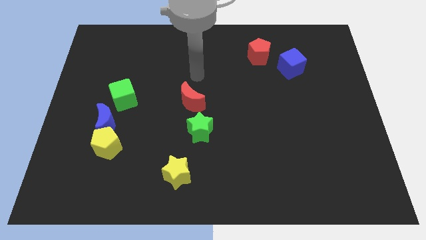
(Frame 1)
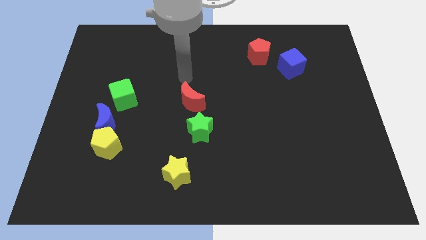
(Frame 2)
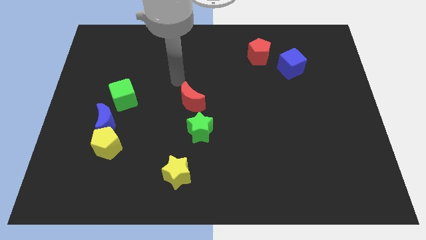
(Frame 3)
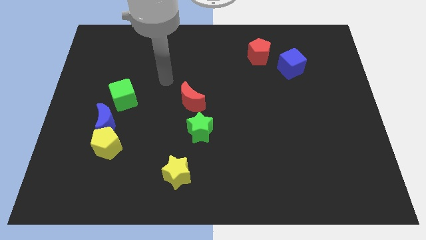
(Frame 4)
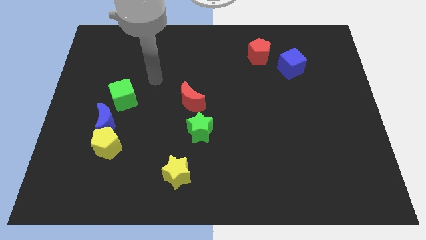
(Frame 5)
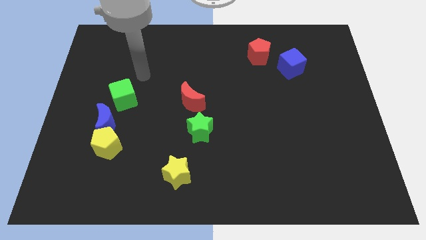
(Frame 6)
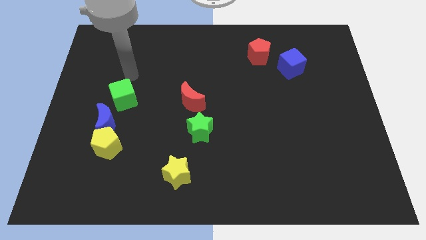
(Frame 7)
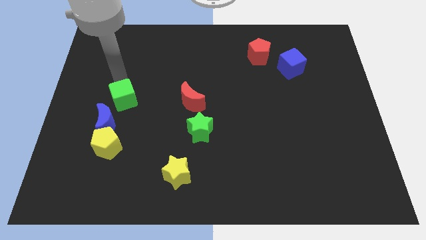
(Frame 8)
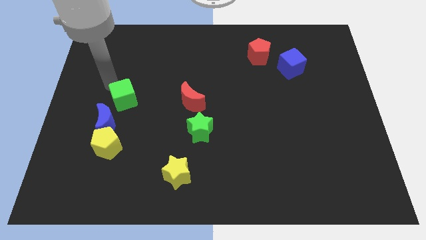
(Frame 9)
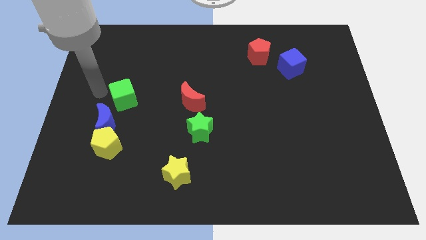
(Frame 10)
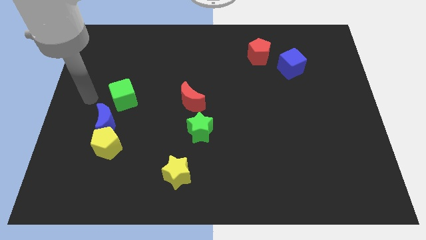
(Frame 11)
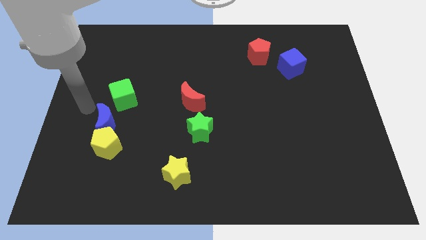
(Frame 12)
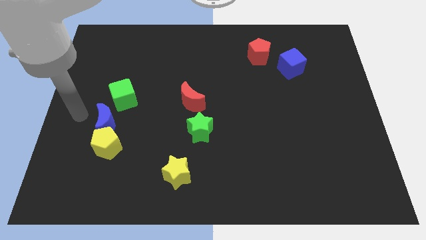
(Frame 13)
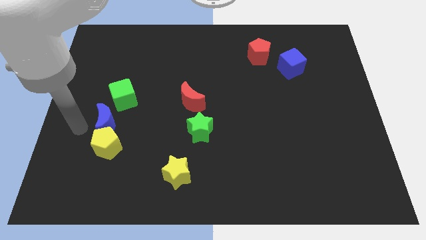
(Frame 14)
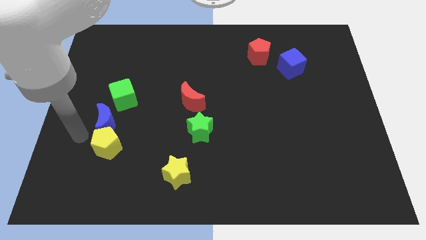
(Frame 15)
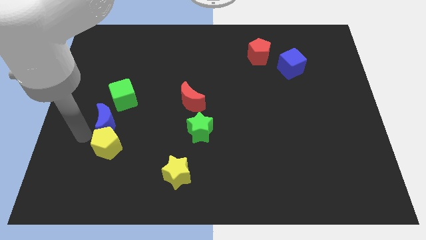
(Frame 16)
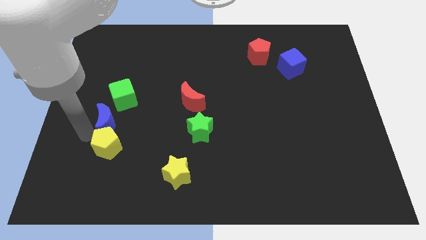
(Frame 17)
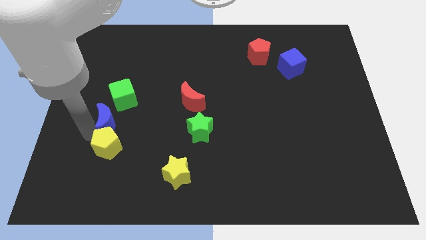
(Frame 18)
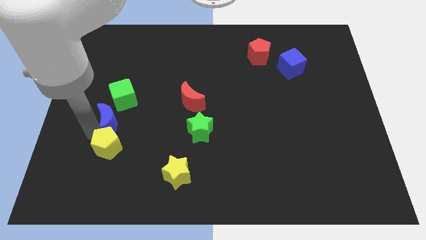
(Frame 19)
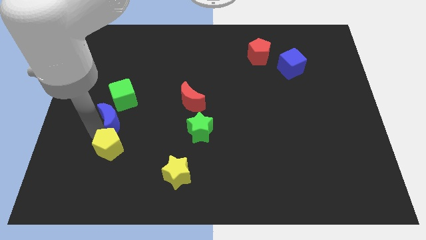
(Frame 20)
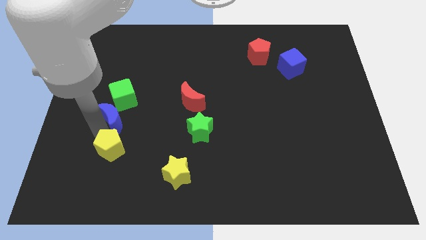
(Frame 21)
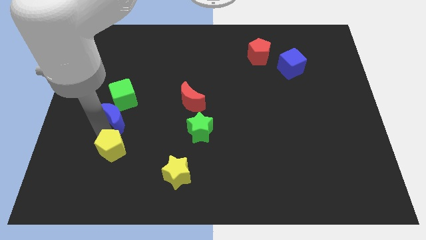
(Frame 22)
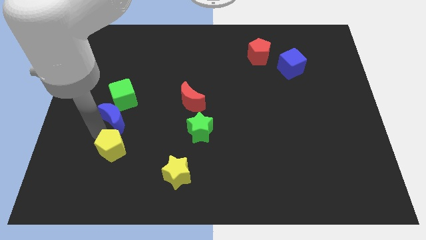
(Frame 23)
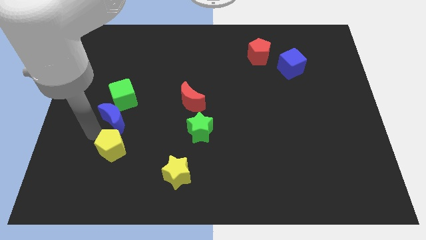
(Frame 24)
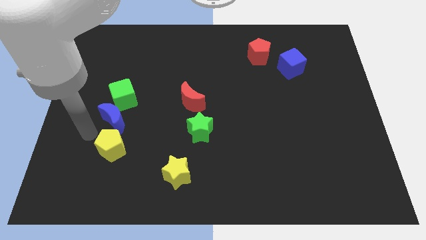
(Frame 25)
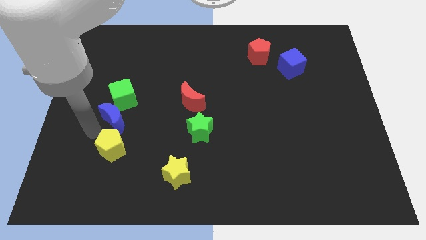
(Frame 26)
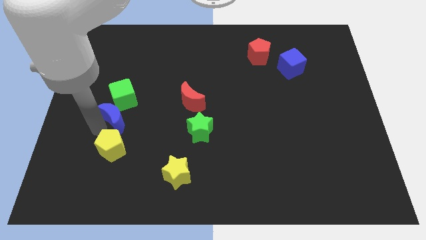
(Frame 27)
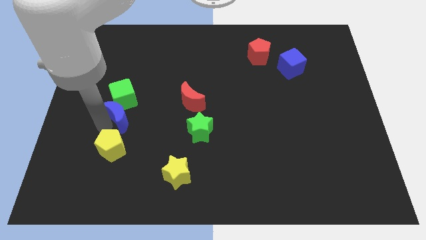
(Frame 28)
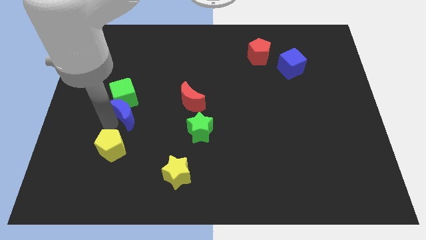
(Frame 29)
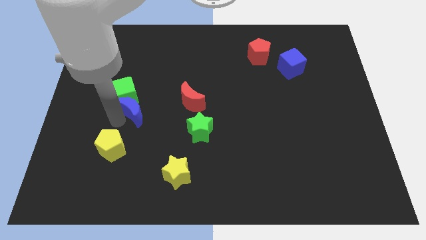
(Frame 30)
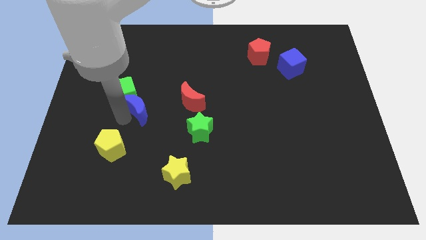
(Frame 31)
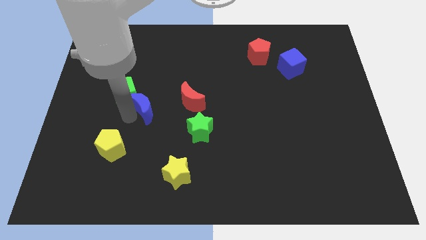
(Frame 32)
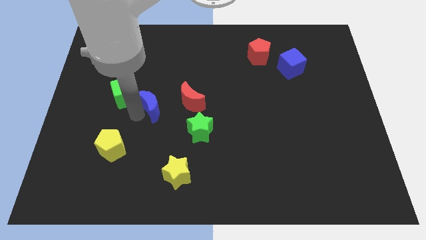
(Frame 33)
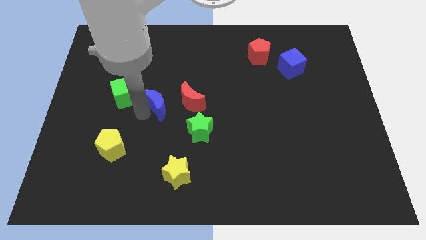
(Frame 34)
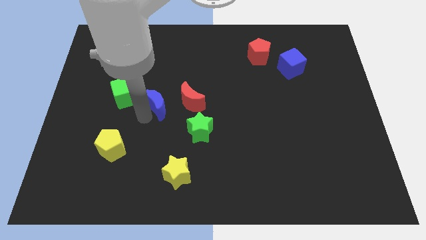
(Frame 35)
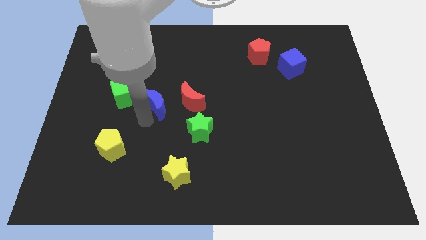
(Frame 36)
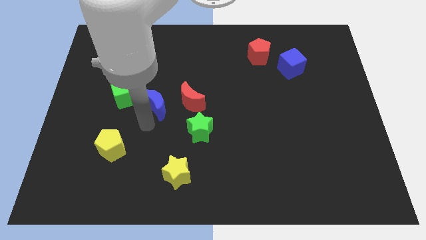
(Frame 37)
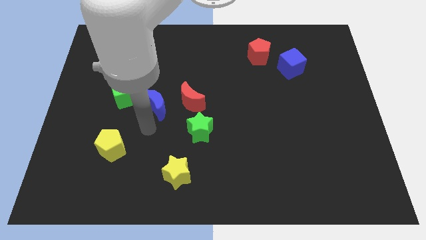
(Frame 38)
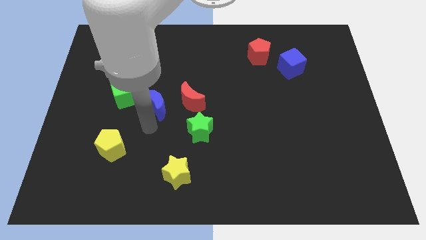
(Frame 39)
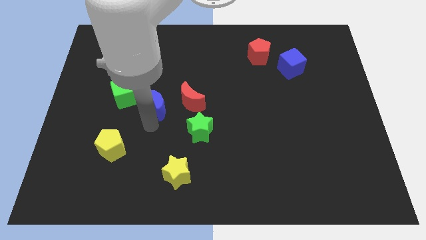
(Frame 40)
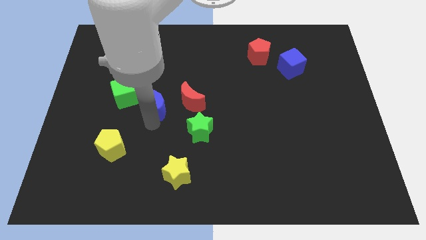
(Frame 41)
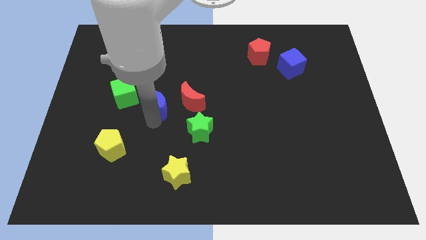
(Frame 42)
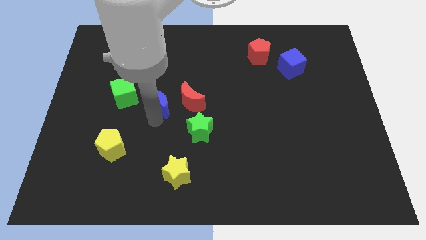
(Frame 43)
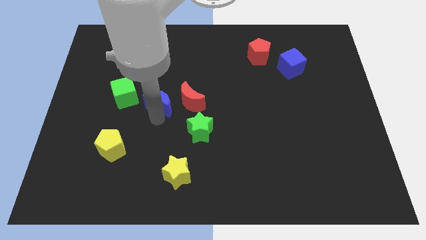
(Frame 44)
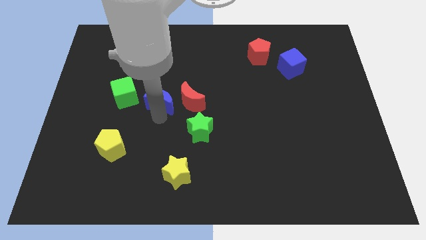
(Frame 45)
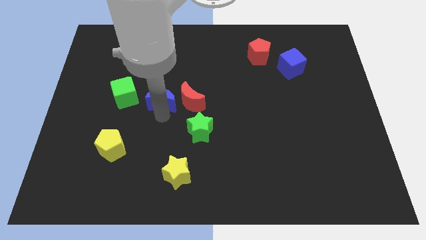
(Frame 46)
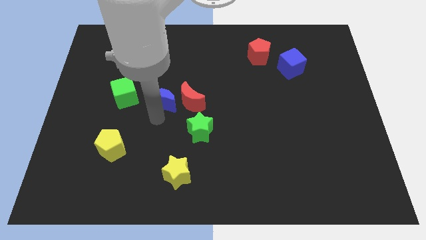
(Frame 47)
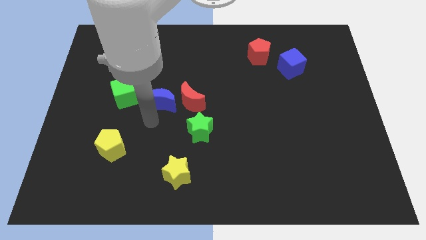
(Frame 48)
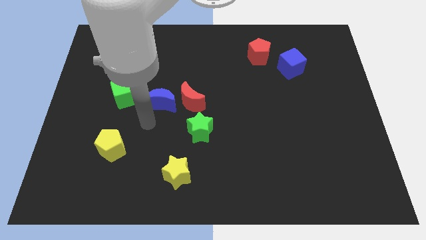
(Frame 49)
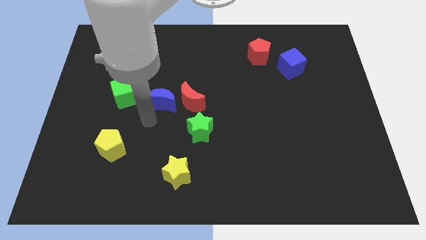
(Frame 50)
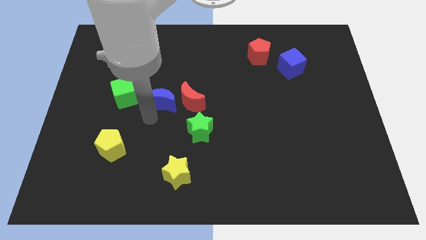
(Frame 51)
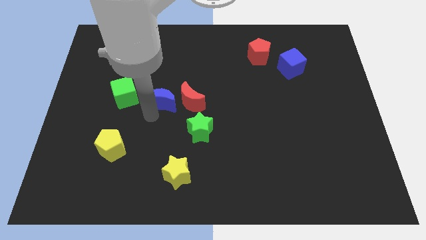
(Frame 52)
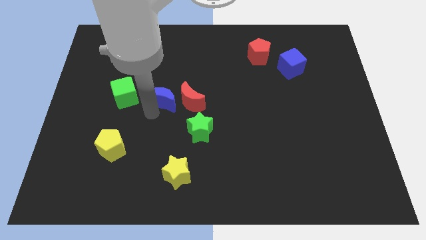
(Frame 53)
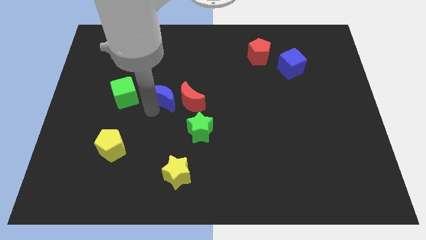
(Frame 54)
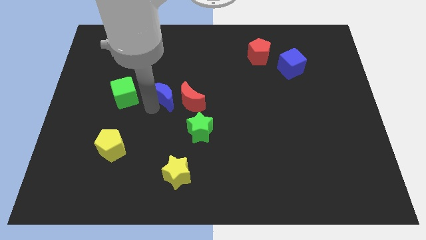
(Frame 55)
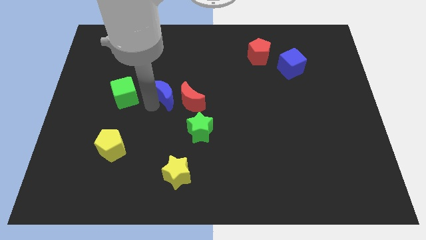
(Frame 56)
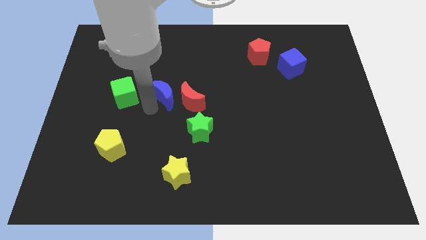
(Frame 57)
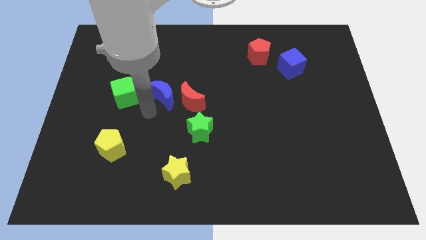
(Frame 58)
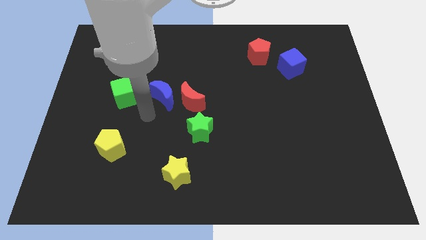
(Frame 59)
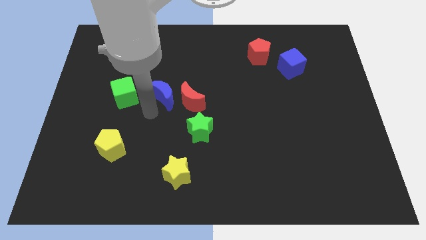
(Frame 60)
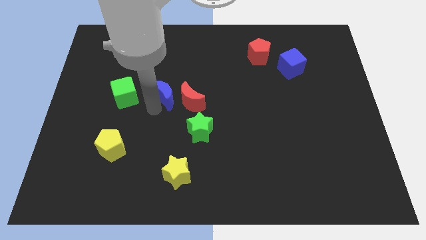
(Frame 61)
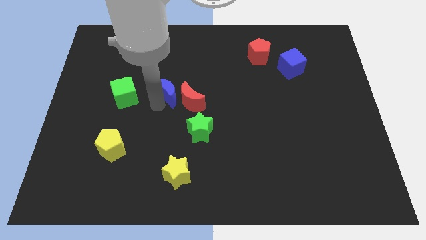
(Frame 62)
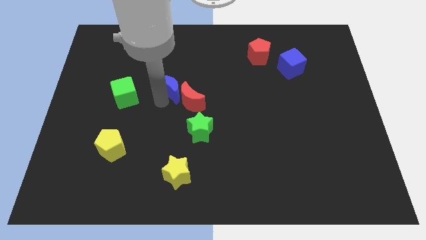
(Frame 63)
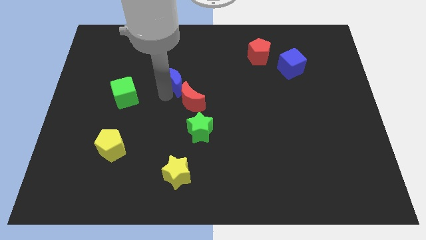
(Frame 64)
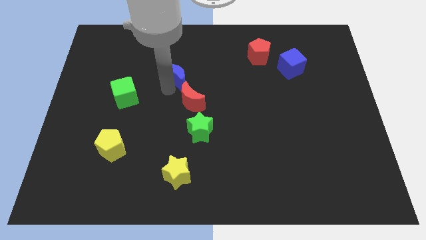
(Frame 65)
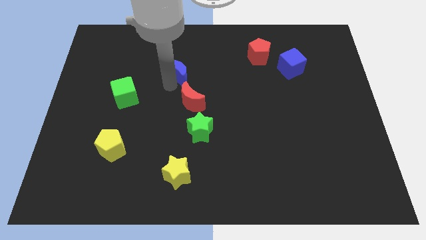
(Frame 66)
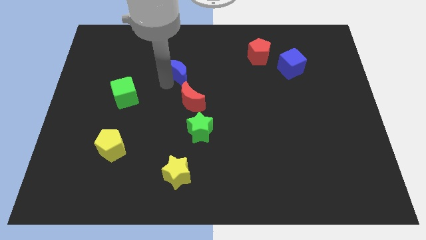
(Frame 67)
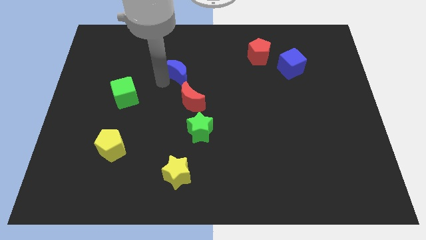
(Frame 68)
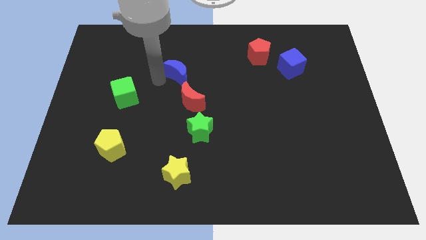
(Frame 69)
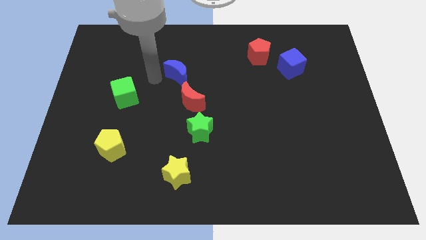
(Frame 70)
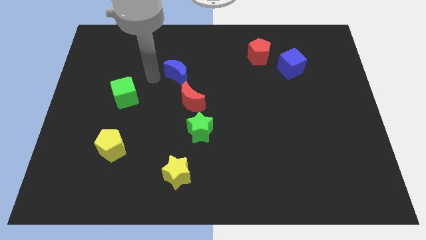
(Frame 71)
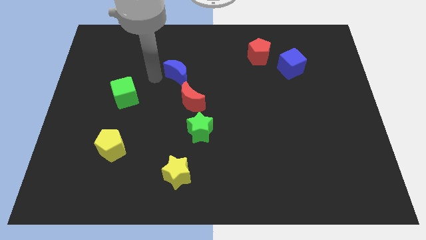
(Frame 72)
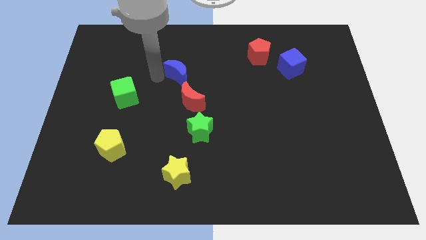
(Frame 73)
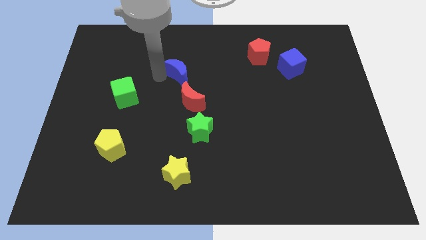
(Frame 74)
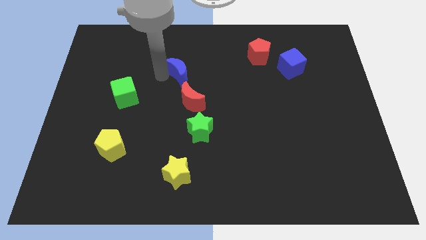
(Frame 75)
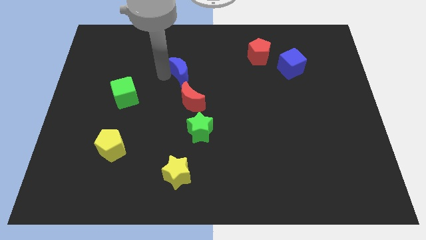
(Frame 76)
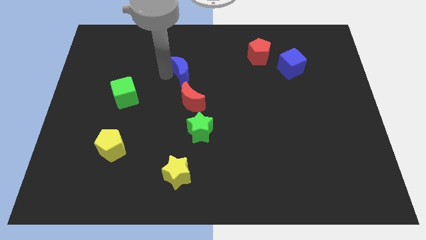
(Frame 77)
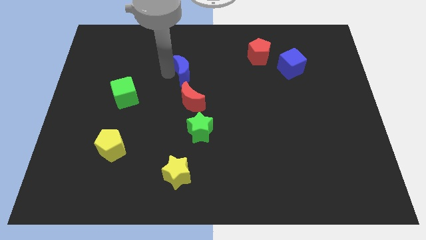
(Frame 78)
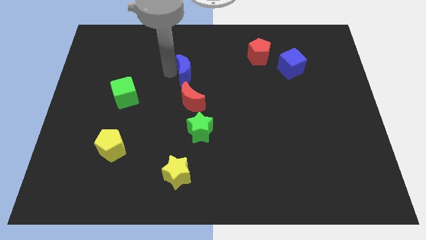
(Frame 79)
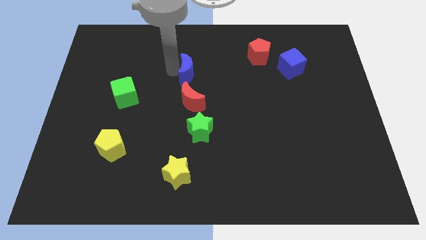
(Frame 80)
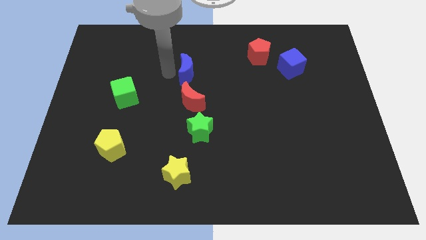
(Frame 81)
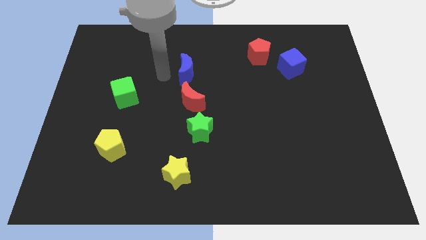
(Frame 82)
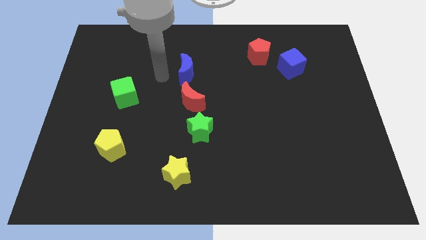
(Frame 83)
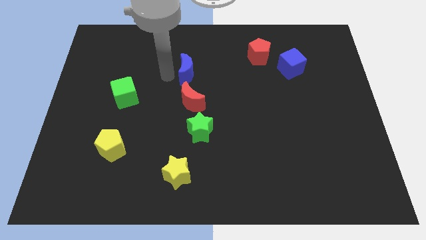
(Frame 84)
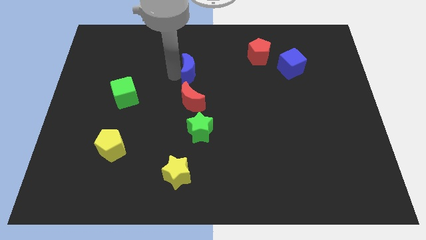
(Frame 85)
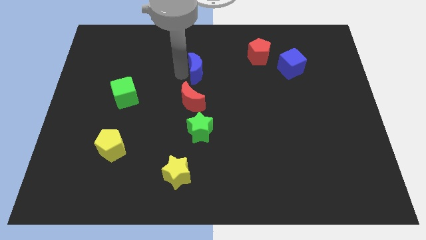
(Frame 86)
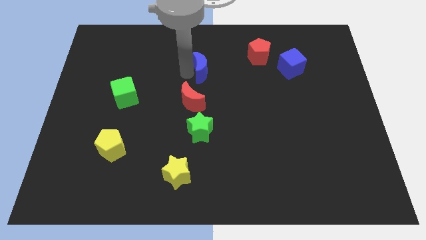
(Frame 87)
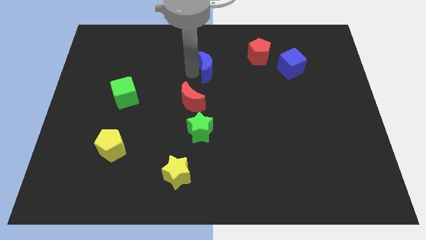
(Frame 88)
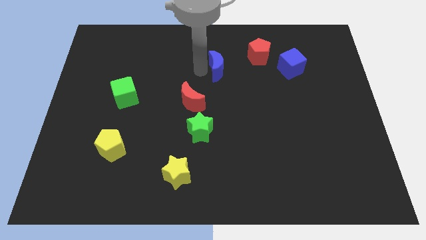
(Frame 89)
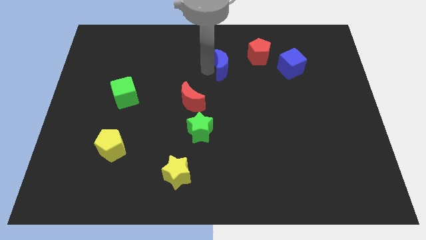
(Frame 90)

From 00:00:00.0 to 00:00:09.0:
push the blue moon to the bottom left of the red pentagon
